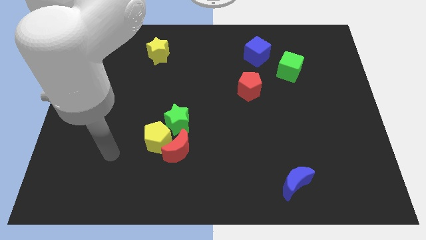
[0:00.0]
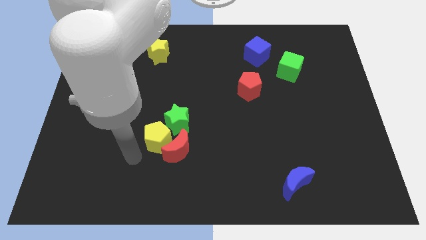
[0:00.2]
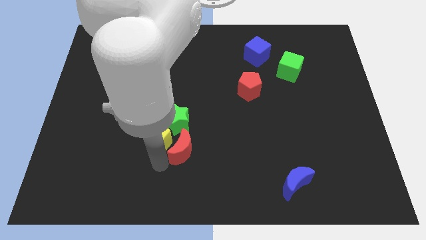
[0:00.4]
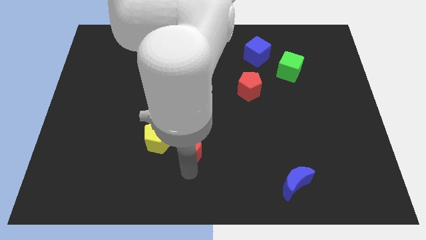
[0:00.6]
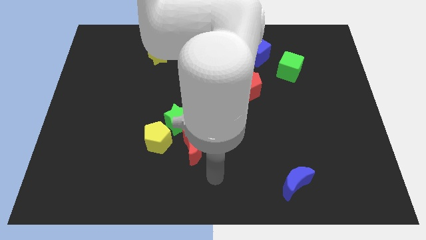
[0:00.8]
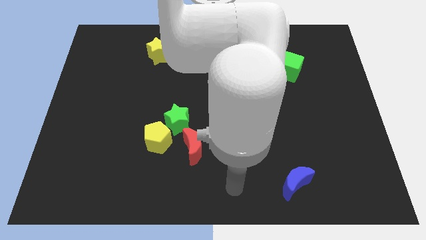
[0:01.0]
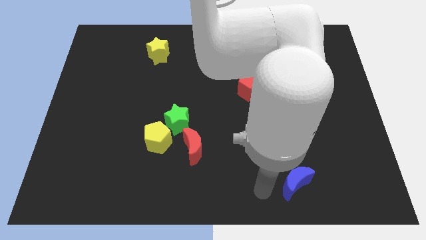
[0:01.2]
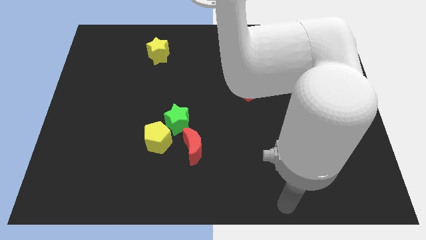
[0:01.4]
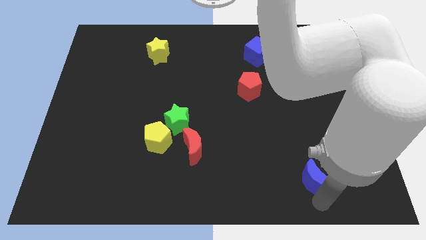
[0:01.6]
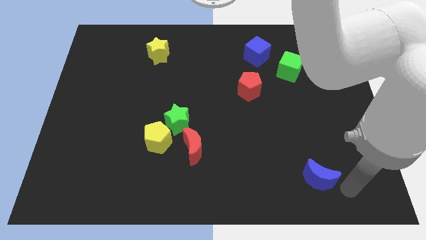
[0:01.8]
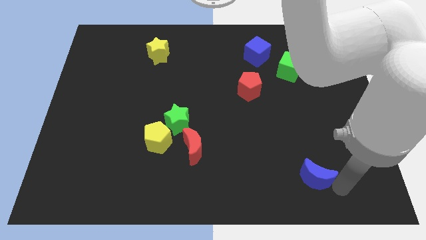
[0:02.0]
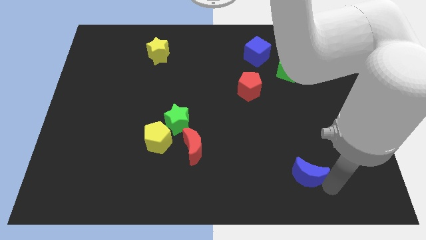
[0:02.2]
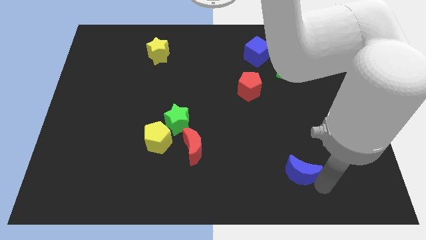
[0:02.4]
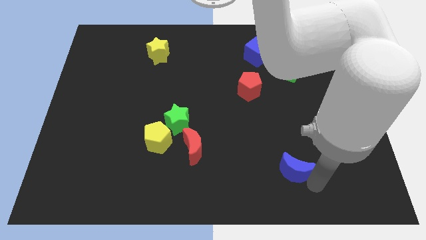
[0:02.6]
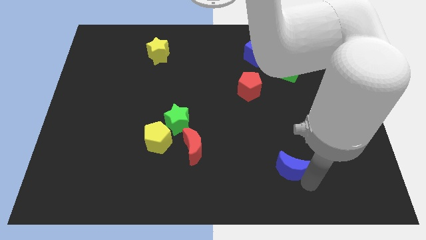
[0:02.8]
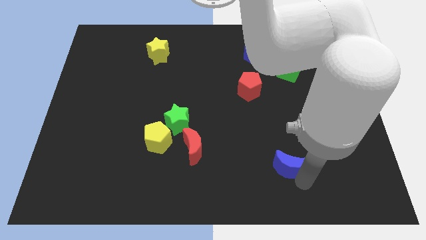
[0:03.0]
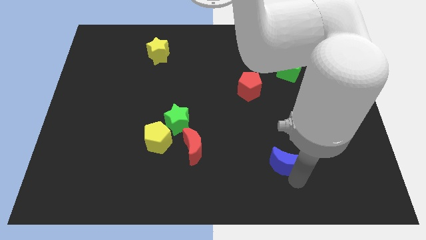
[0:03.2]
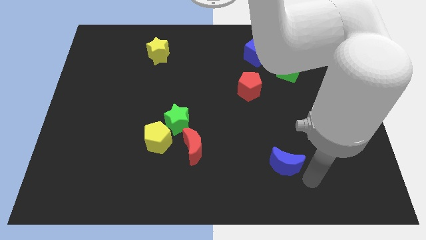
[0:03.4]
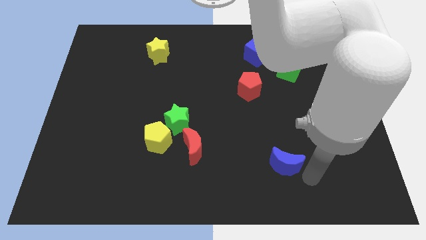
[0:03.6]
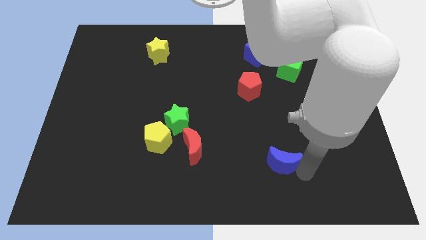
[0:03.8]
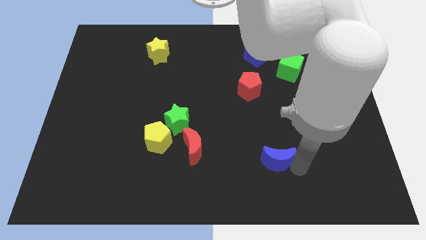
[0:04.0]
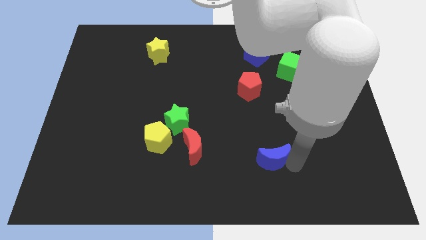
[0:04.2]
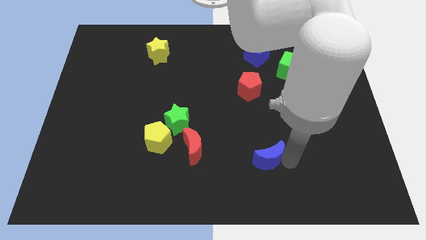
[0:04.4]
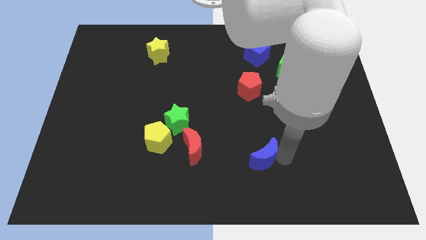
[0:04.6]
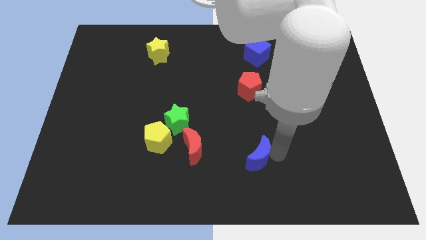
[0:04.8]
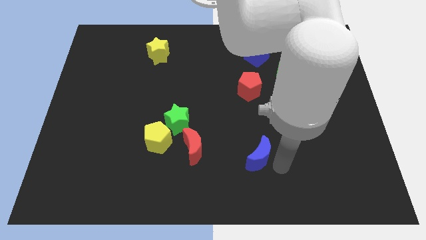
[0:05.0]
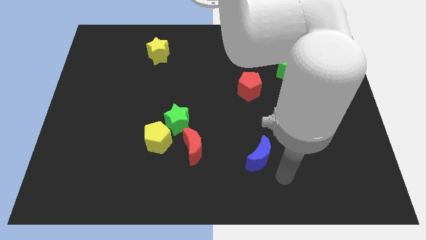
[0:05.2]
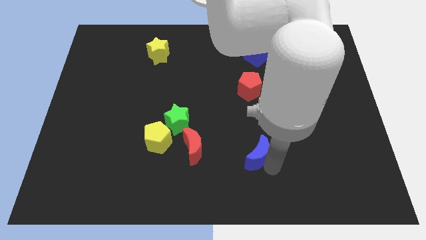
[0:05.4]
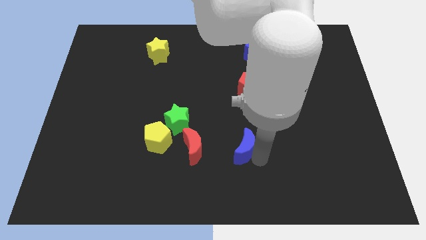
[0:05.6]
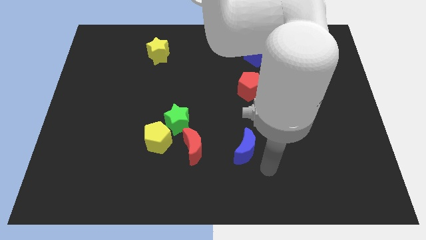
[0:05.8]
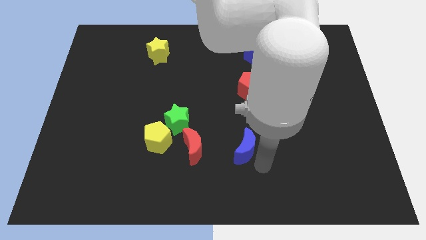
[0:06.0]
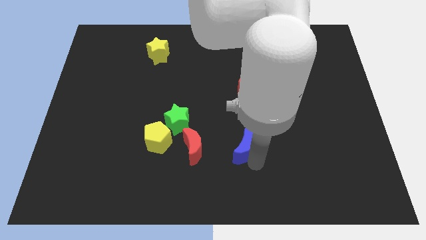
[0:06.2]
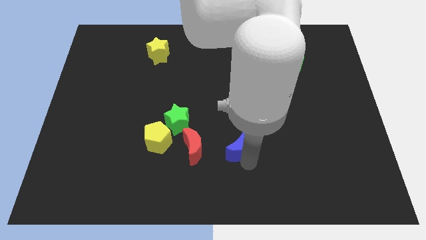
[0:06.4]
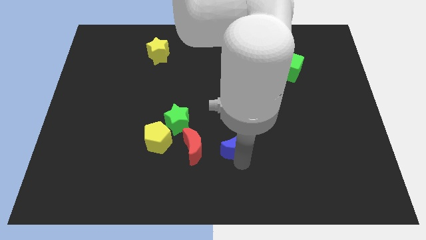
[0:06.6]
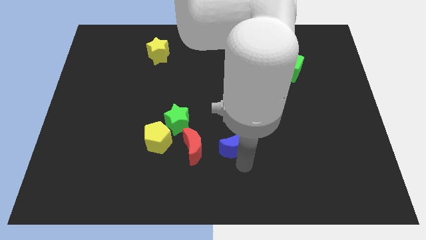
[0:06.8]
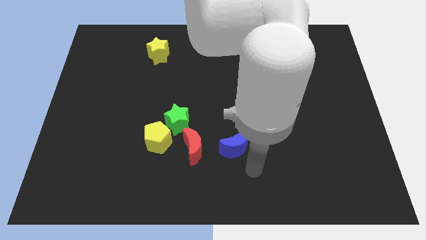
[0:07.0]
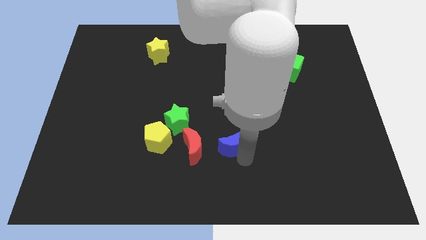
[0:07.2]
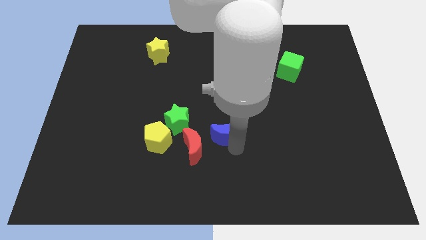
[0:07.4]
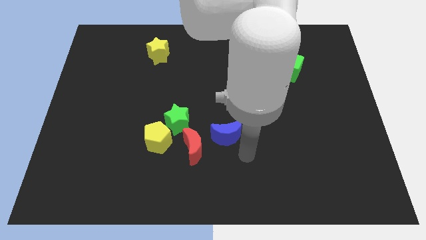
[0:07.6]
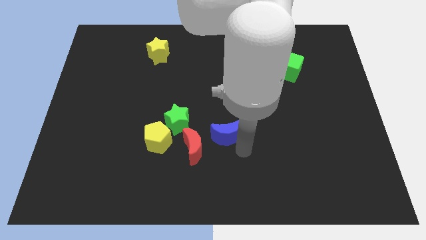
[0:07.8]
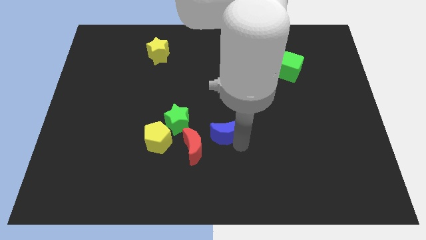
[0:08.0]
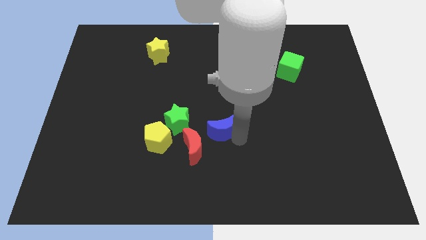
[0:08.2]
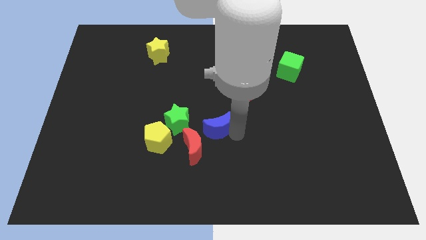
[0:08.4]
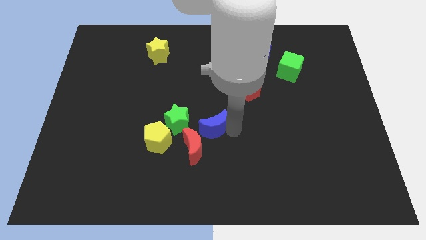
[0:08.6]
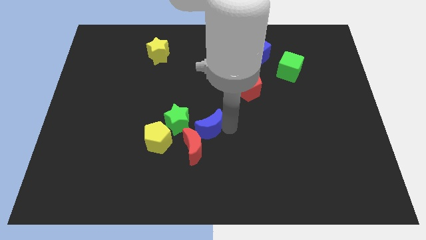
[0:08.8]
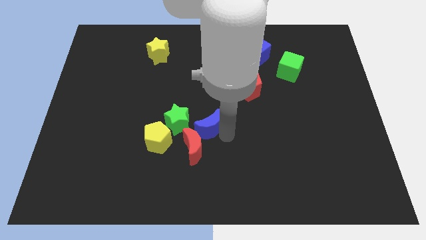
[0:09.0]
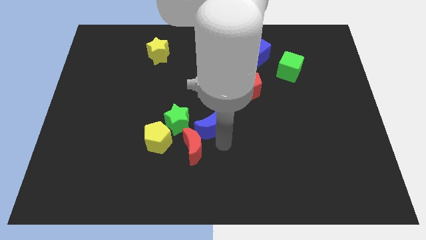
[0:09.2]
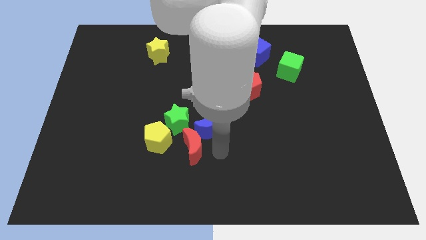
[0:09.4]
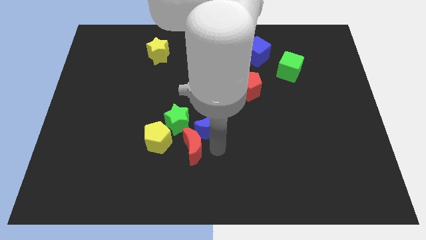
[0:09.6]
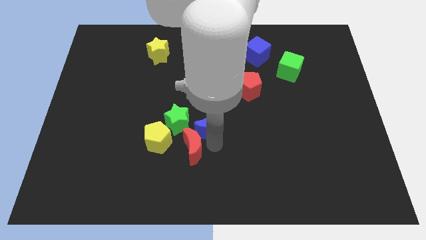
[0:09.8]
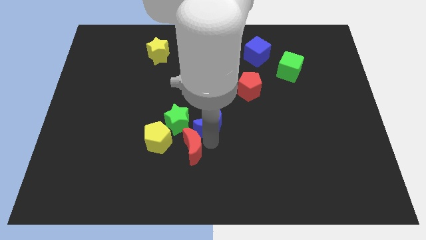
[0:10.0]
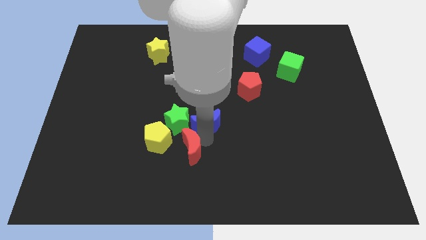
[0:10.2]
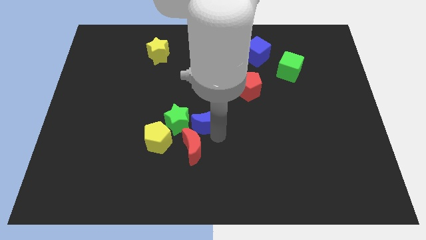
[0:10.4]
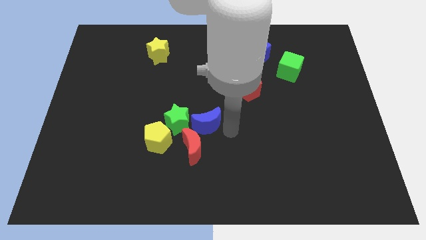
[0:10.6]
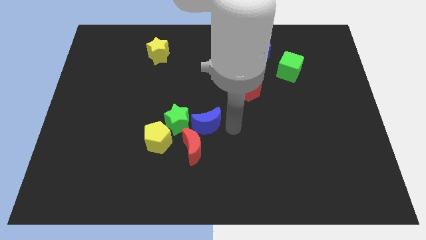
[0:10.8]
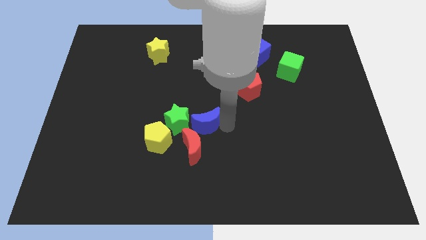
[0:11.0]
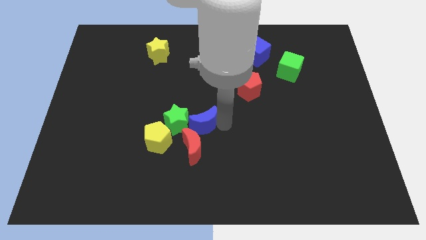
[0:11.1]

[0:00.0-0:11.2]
slide the blue moon to the top right side of the yellow pentagon

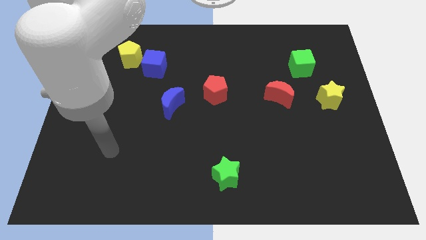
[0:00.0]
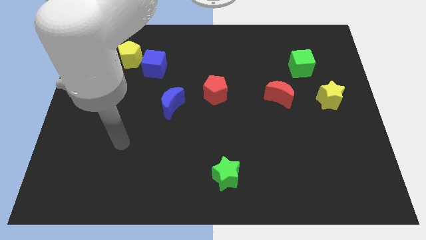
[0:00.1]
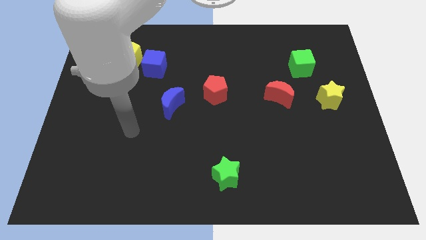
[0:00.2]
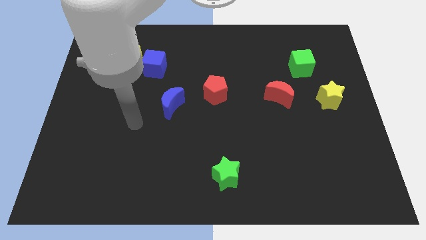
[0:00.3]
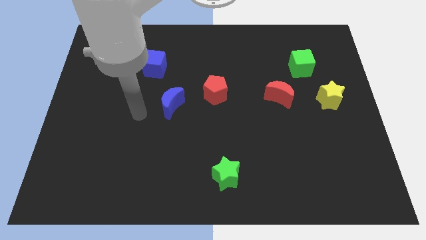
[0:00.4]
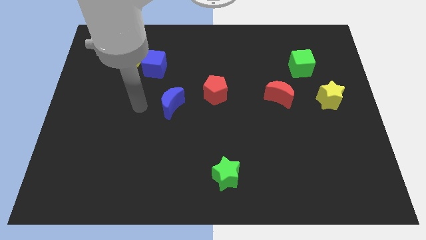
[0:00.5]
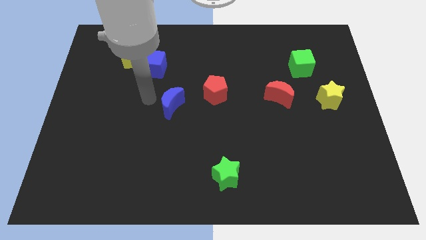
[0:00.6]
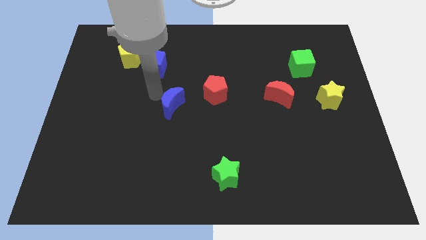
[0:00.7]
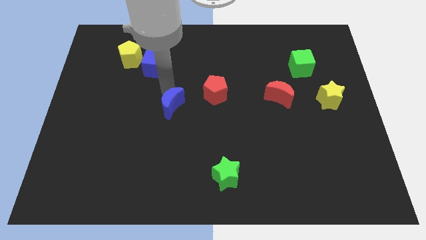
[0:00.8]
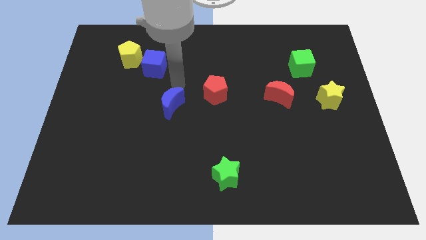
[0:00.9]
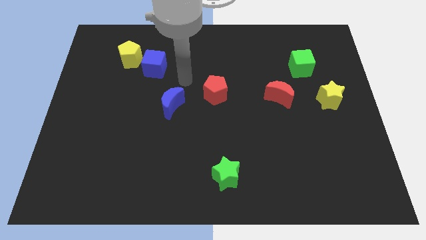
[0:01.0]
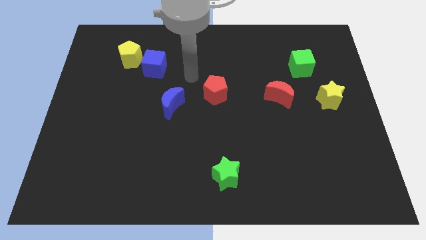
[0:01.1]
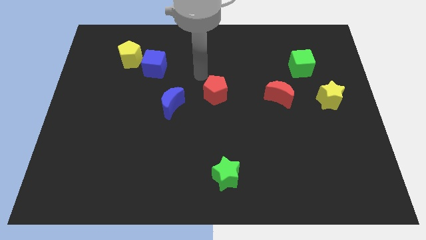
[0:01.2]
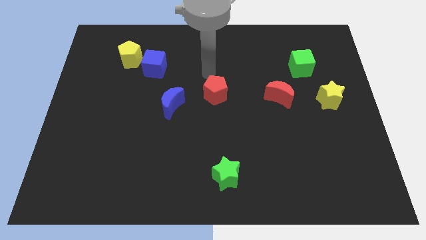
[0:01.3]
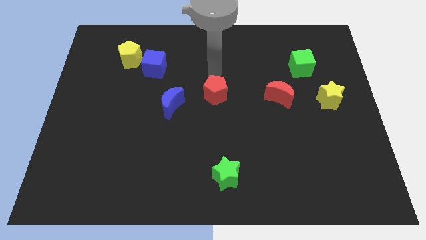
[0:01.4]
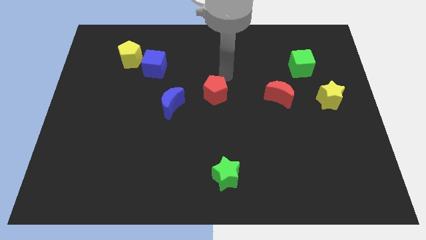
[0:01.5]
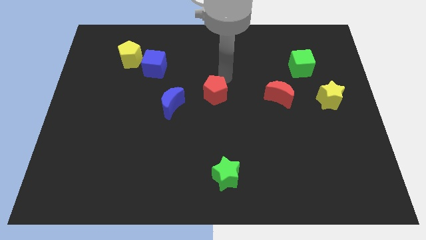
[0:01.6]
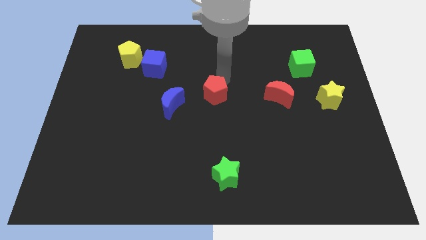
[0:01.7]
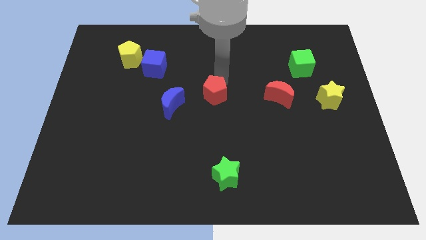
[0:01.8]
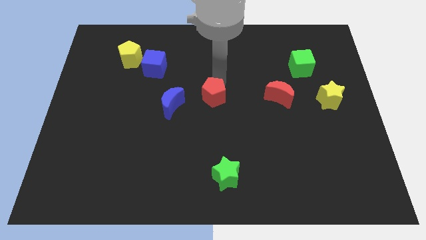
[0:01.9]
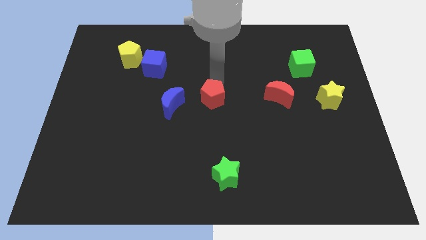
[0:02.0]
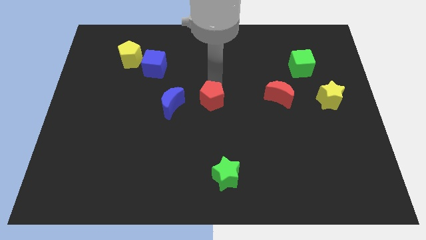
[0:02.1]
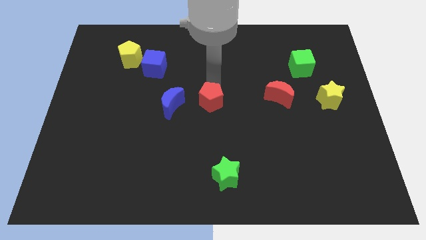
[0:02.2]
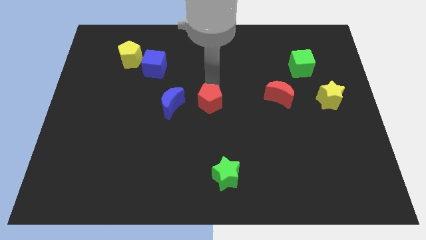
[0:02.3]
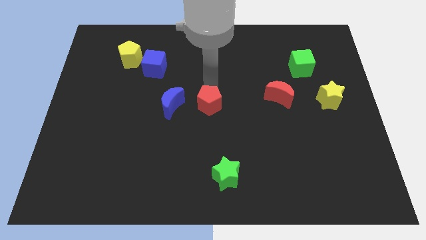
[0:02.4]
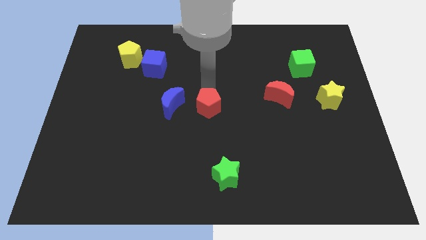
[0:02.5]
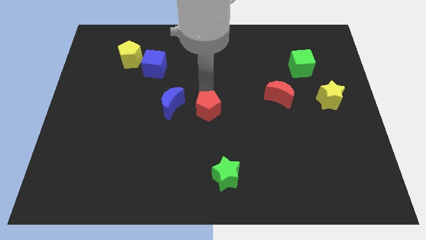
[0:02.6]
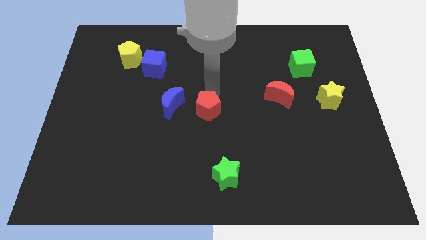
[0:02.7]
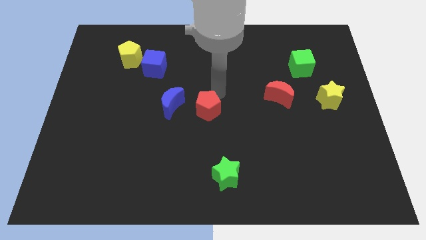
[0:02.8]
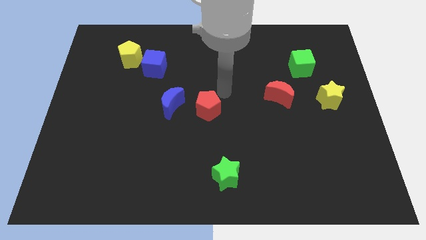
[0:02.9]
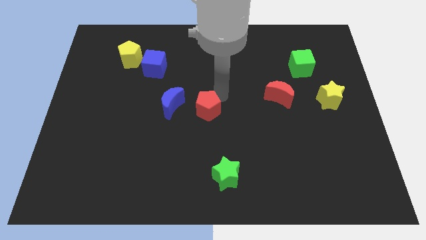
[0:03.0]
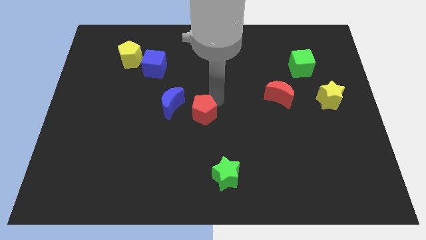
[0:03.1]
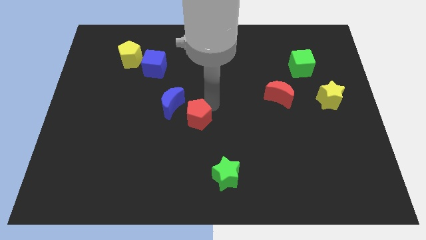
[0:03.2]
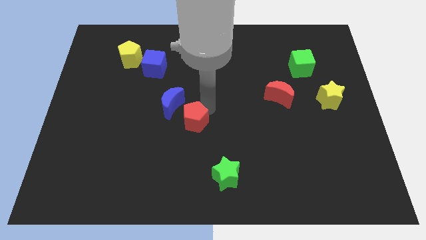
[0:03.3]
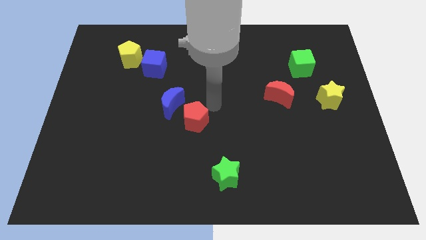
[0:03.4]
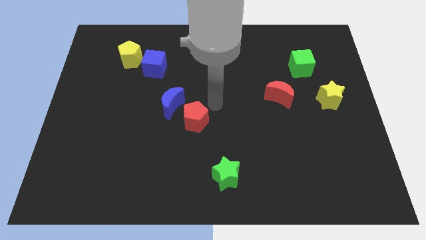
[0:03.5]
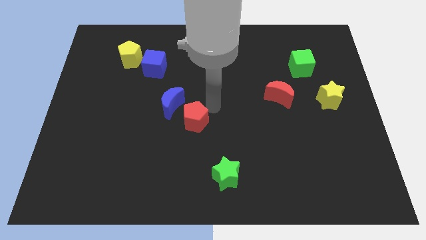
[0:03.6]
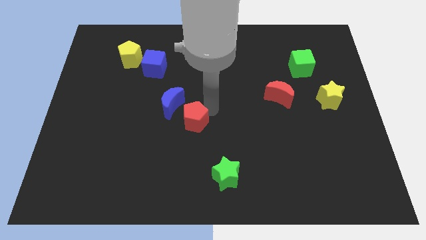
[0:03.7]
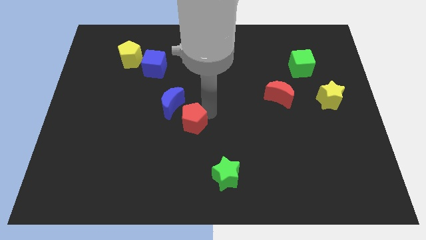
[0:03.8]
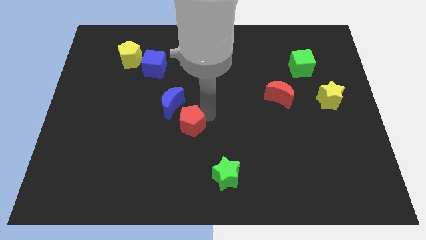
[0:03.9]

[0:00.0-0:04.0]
put the red pentagon below the blue moon
